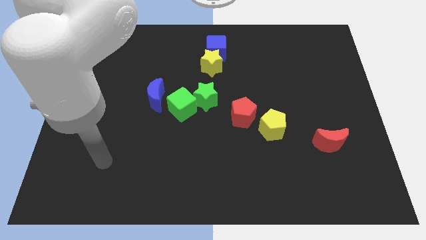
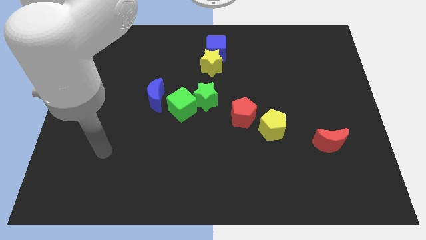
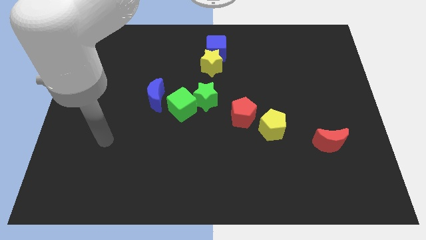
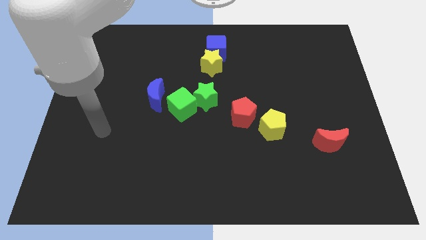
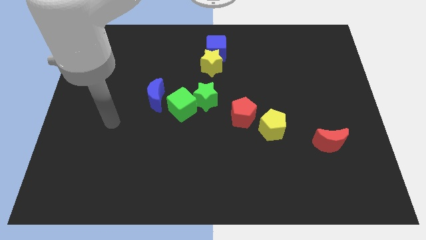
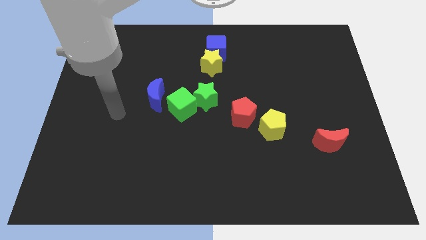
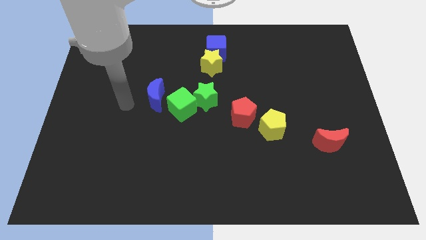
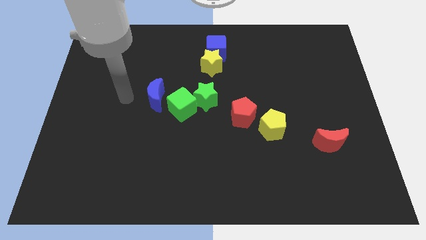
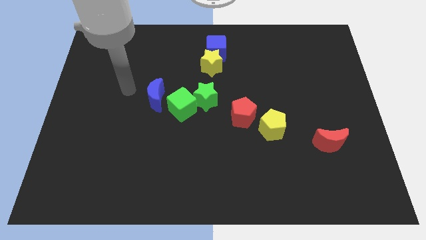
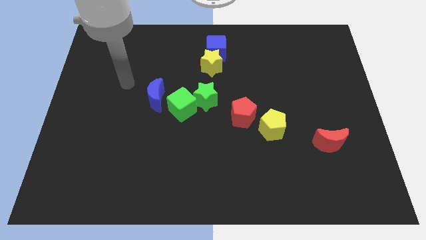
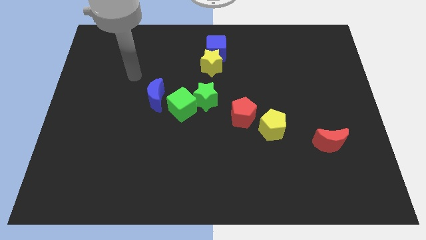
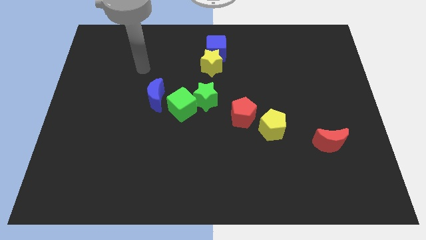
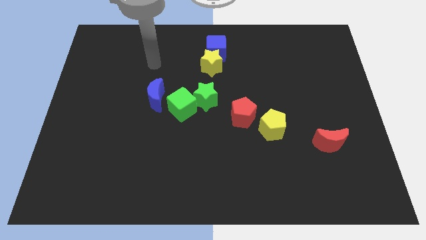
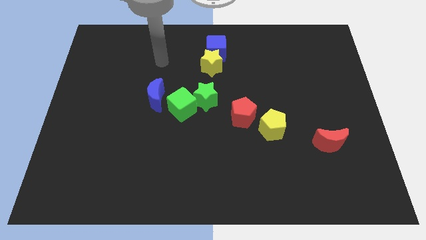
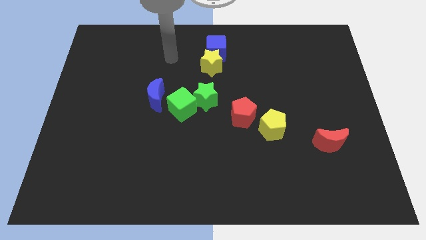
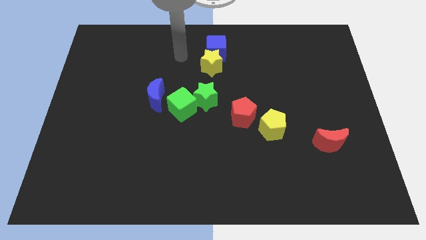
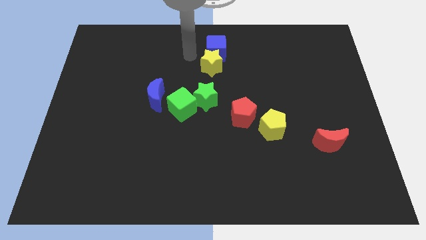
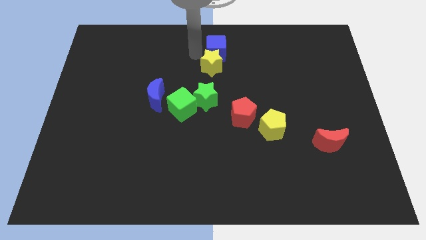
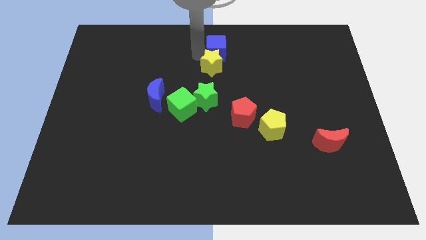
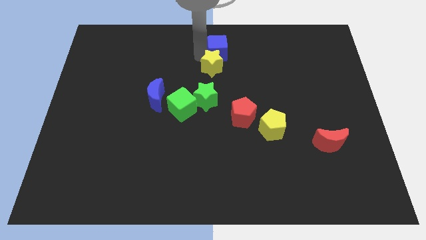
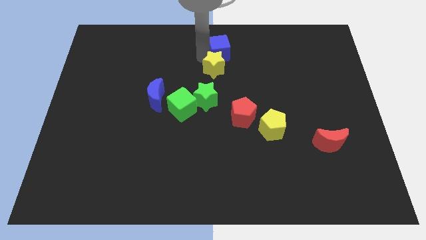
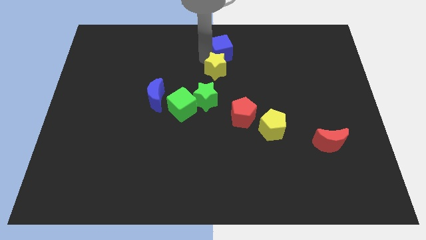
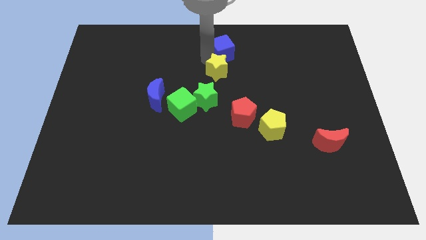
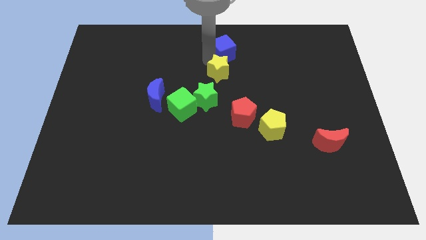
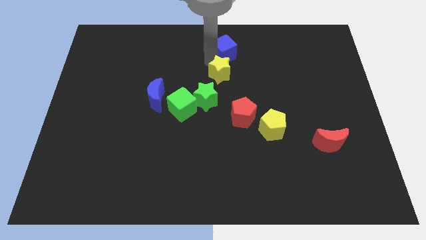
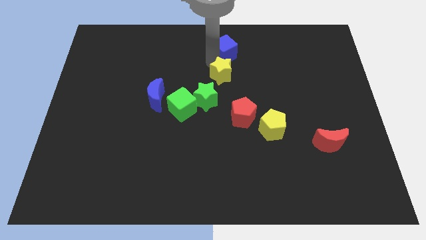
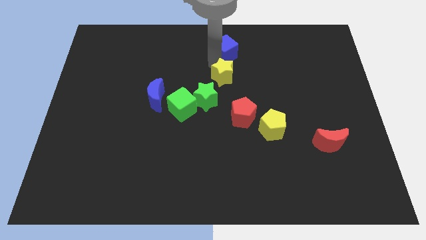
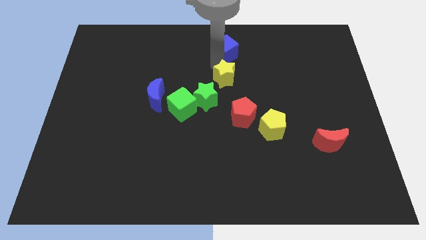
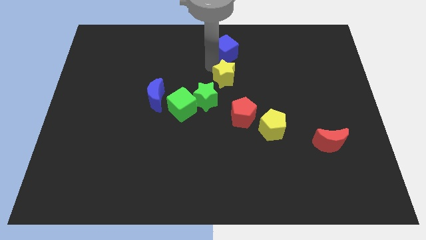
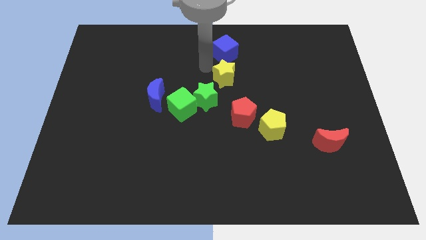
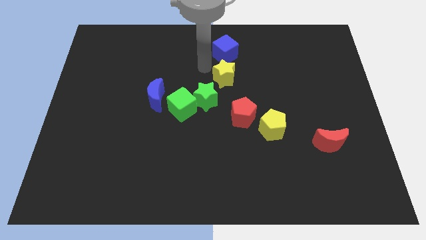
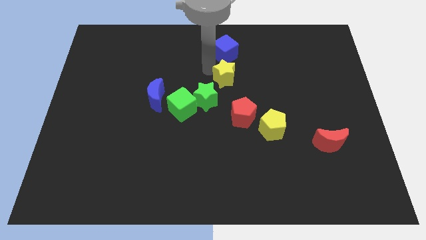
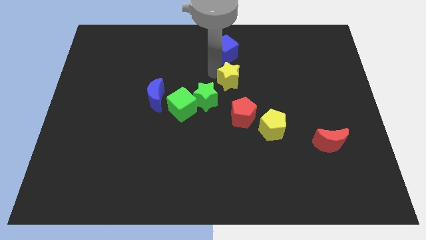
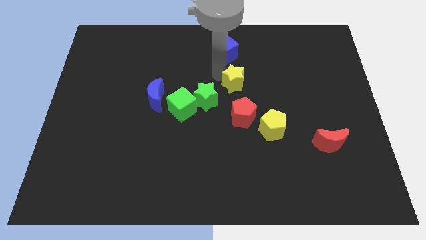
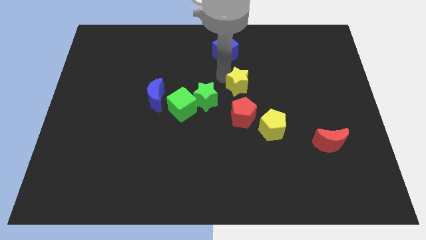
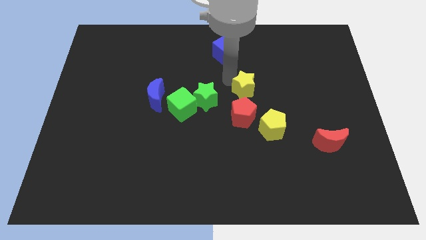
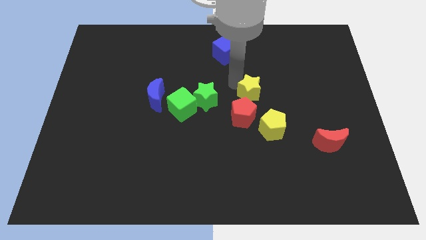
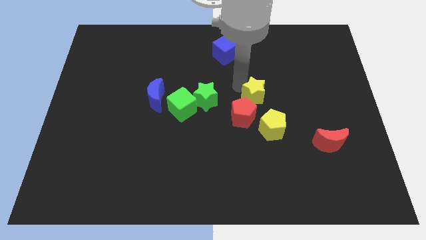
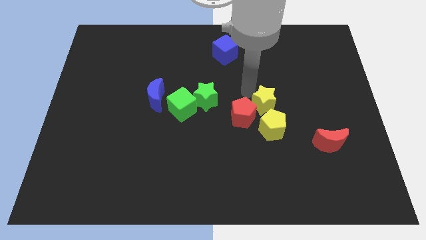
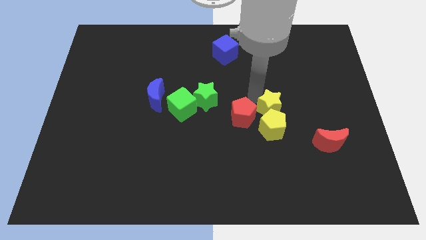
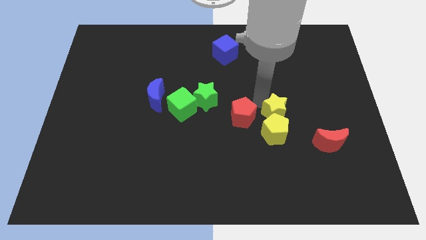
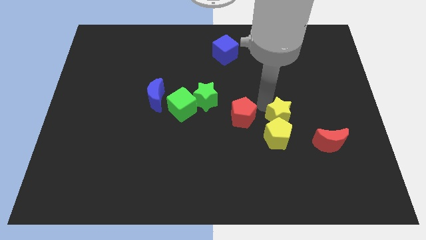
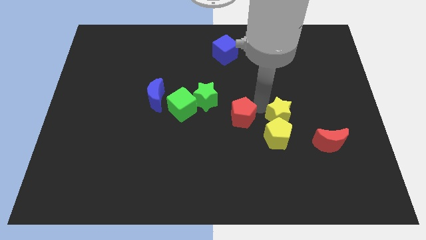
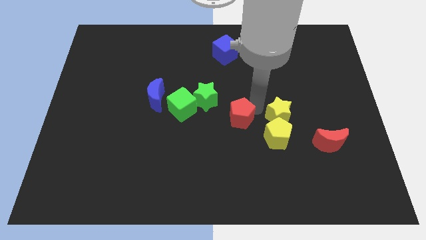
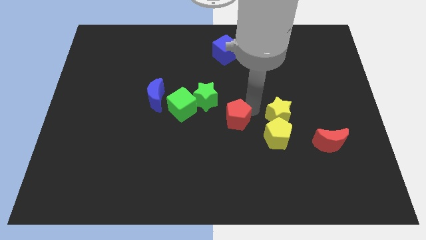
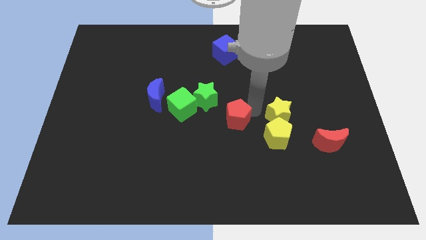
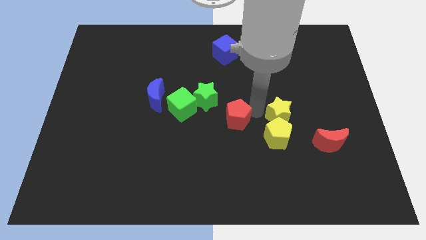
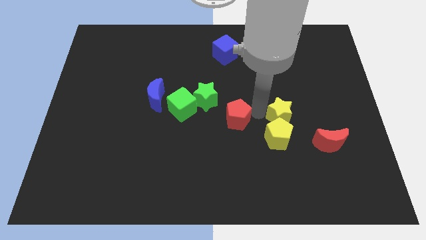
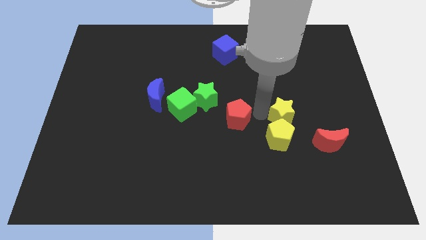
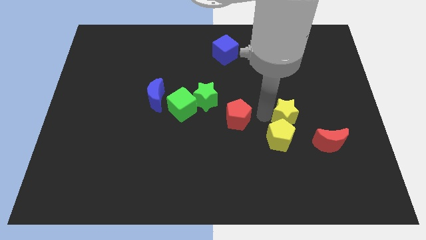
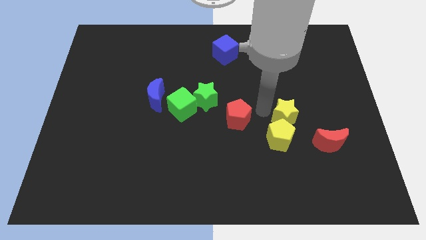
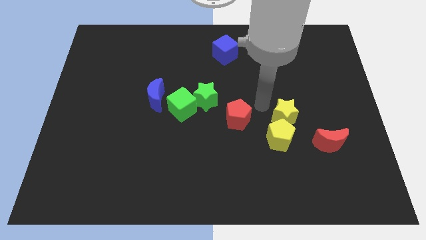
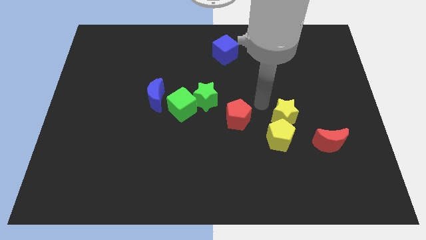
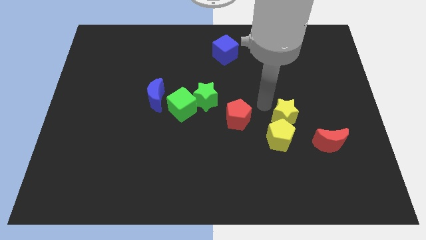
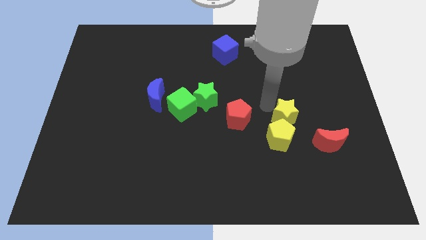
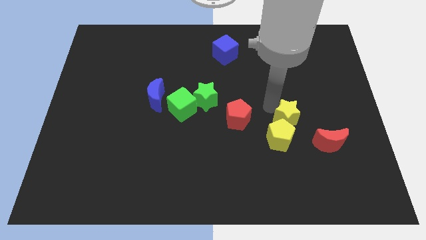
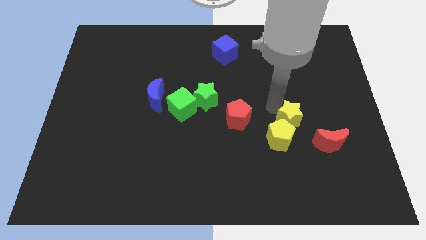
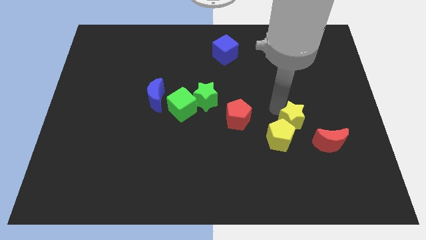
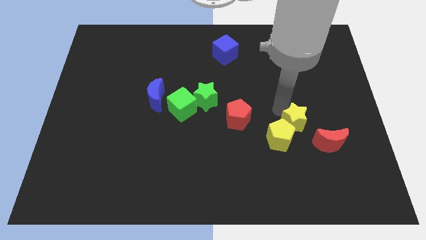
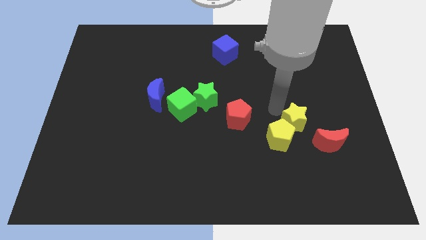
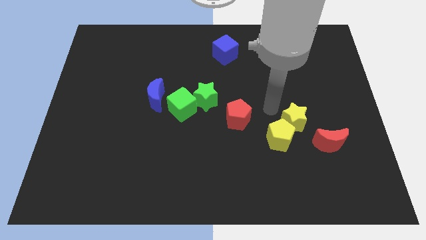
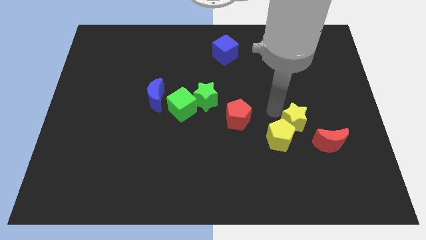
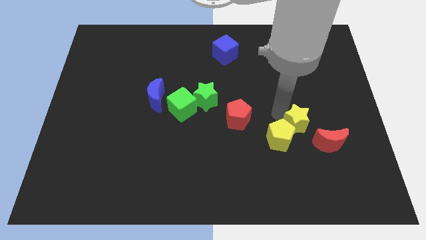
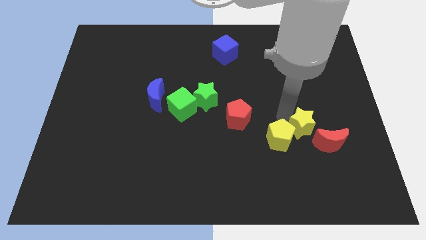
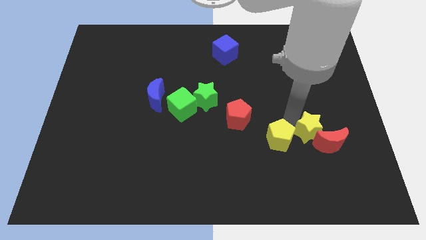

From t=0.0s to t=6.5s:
move the yellow star to the red moon
